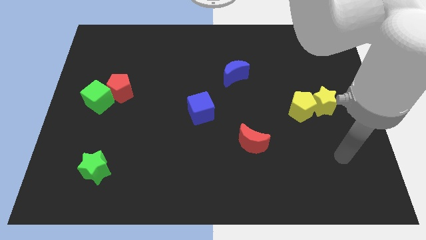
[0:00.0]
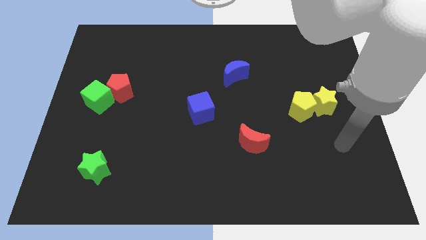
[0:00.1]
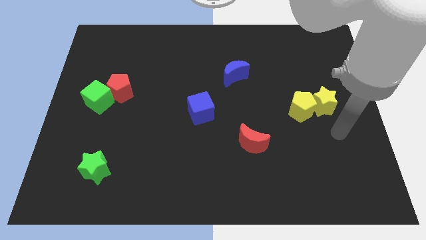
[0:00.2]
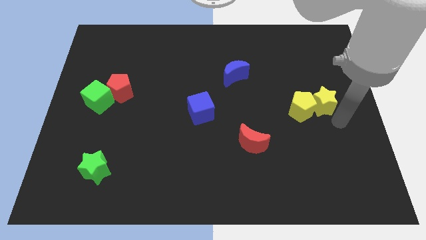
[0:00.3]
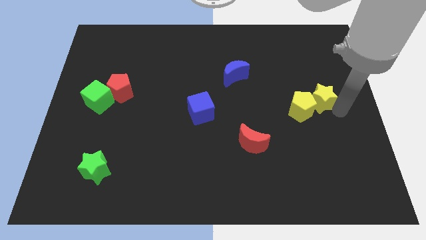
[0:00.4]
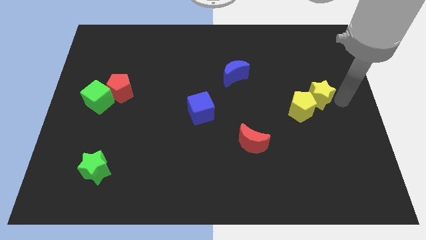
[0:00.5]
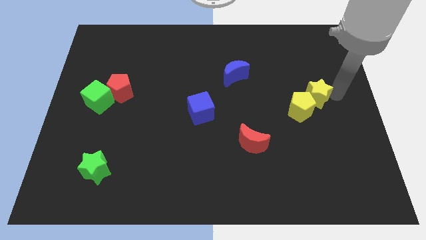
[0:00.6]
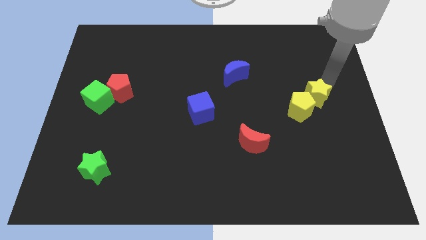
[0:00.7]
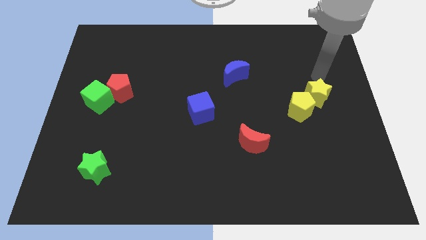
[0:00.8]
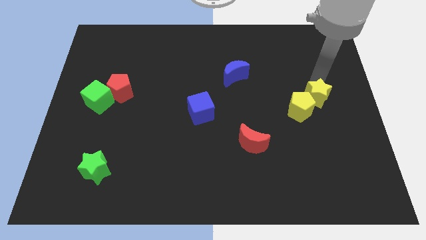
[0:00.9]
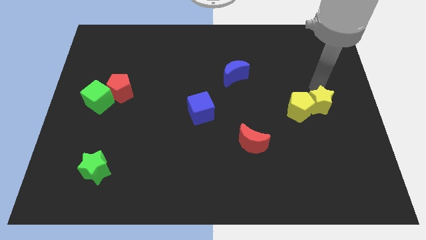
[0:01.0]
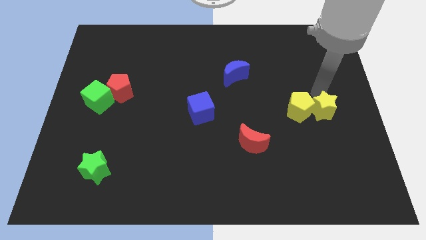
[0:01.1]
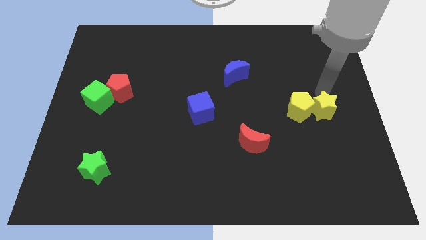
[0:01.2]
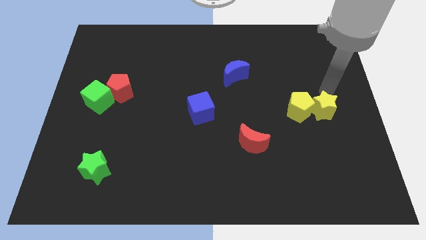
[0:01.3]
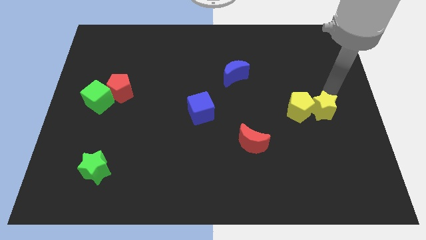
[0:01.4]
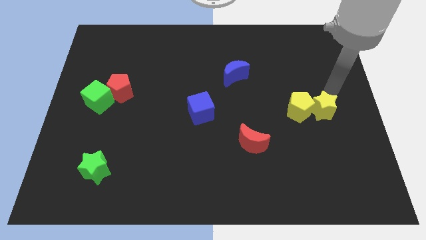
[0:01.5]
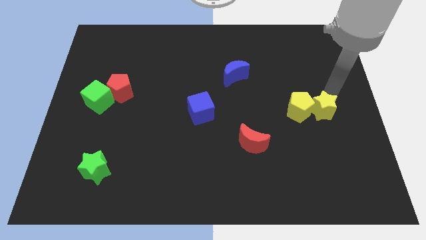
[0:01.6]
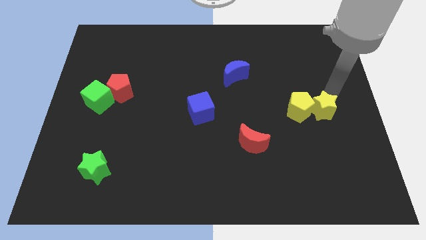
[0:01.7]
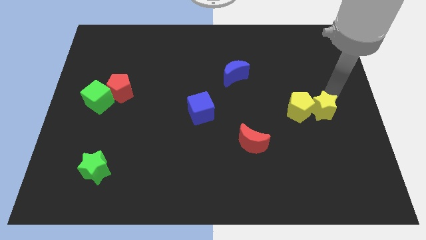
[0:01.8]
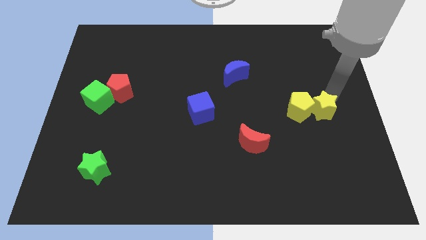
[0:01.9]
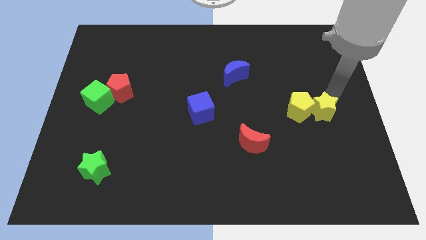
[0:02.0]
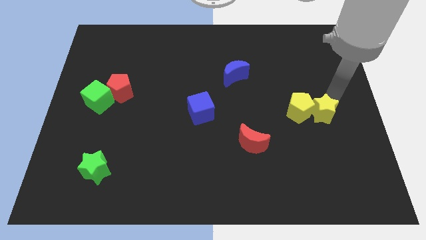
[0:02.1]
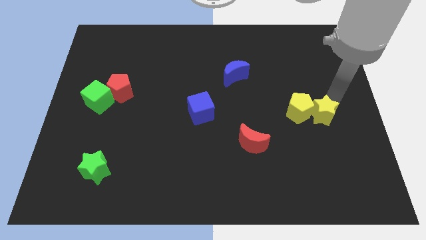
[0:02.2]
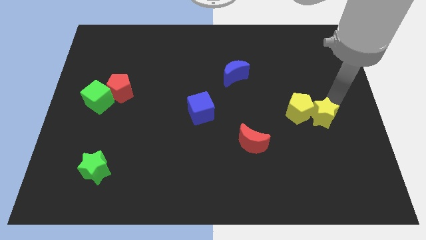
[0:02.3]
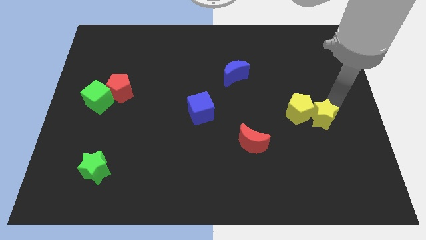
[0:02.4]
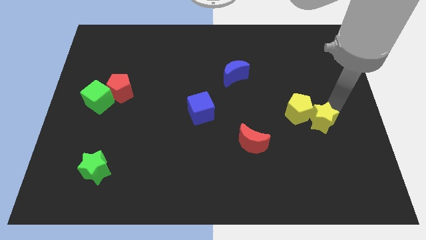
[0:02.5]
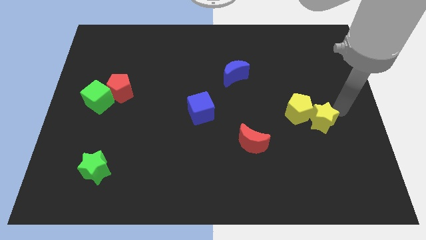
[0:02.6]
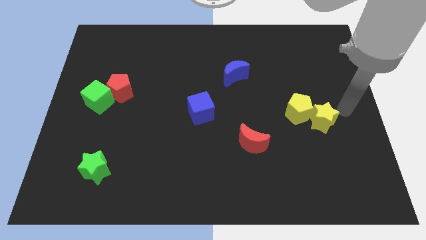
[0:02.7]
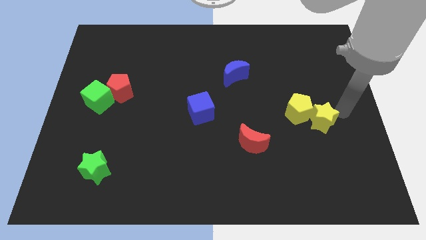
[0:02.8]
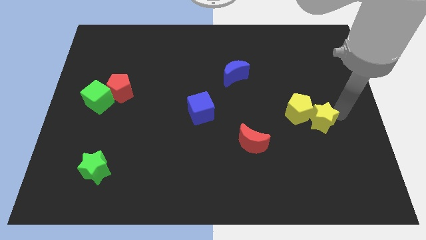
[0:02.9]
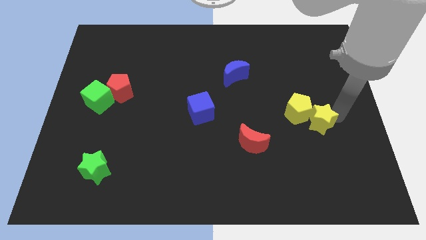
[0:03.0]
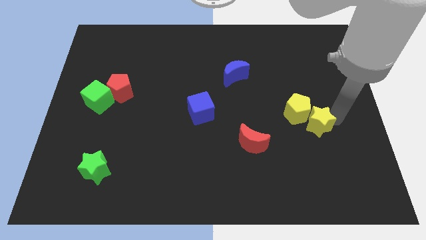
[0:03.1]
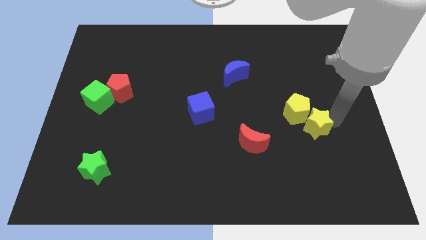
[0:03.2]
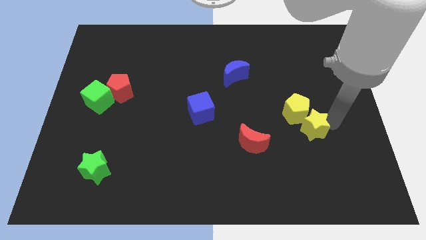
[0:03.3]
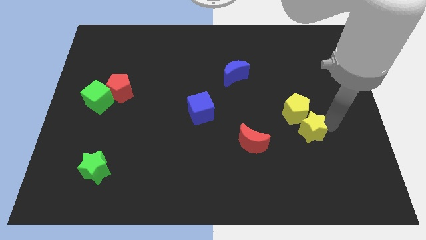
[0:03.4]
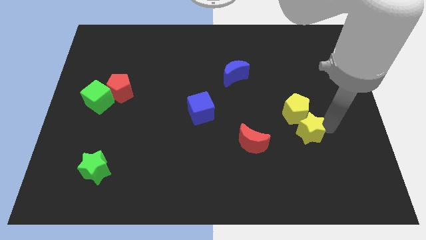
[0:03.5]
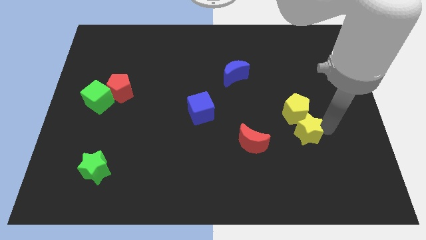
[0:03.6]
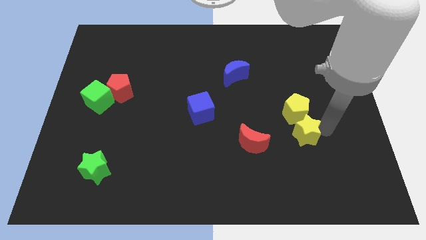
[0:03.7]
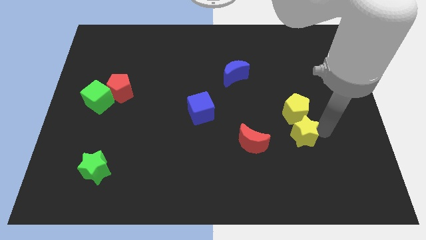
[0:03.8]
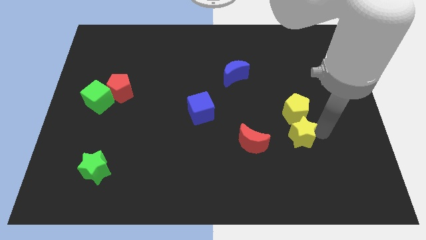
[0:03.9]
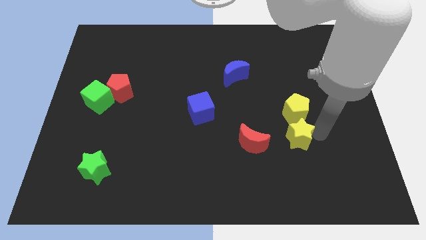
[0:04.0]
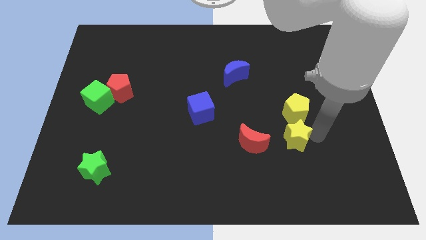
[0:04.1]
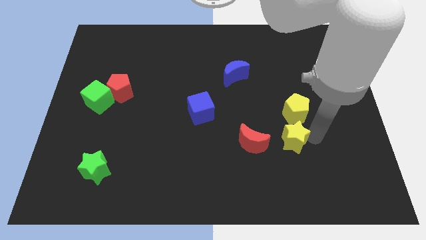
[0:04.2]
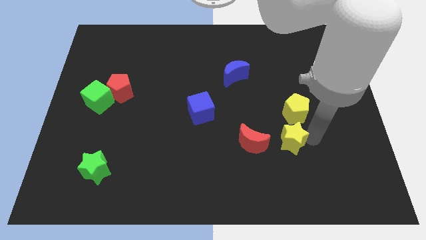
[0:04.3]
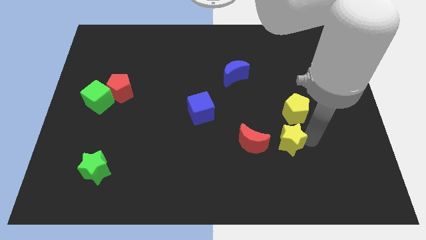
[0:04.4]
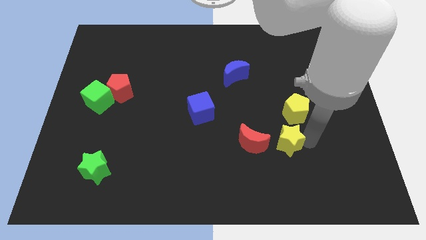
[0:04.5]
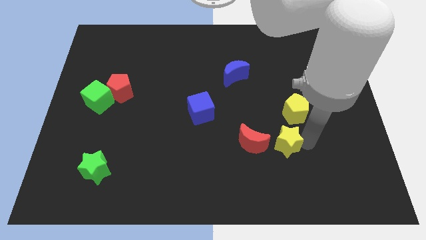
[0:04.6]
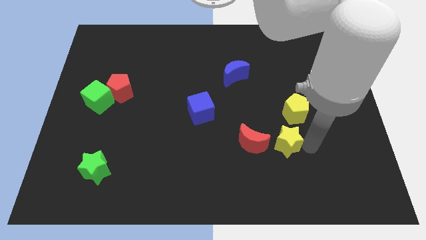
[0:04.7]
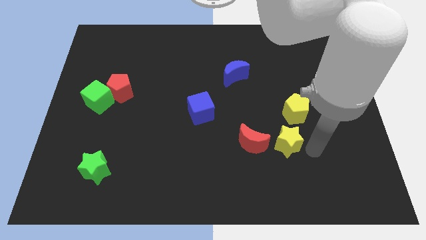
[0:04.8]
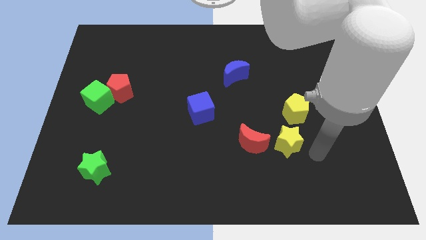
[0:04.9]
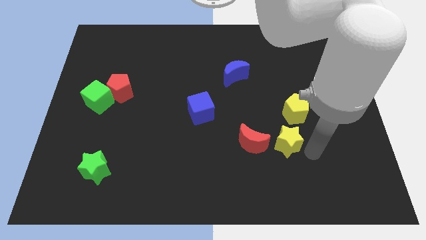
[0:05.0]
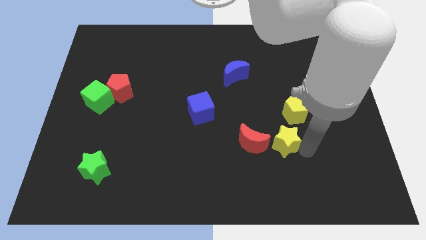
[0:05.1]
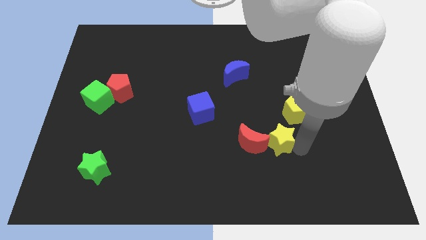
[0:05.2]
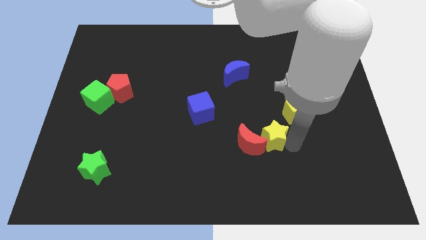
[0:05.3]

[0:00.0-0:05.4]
slide the yellow star to the red moon

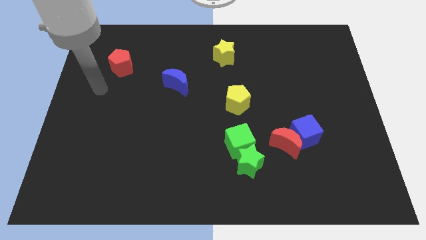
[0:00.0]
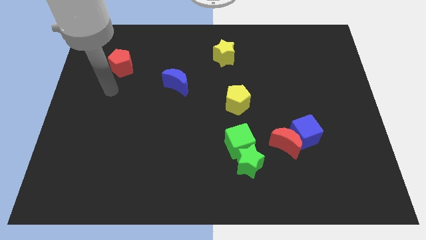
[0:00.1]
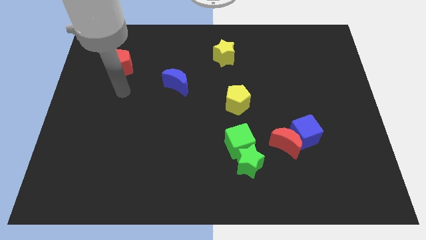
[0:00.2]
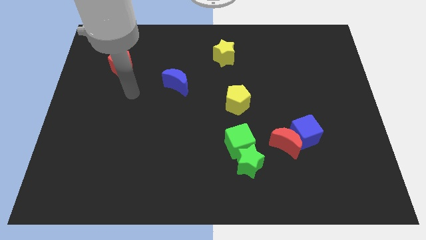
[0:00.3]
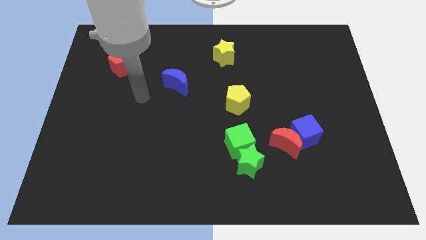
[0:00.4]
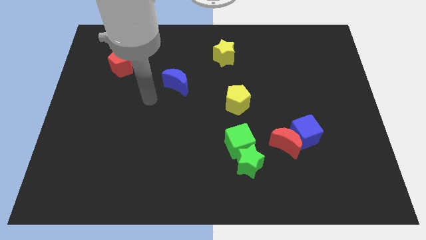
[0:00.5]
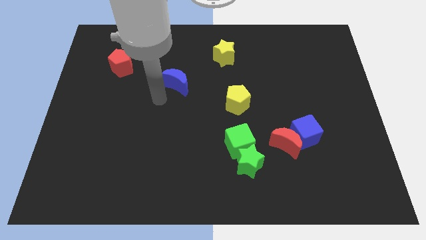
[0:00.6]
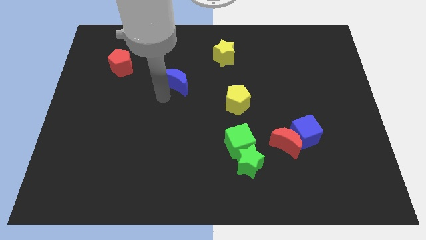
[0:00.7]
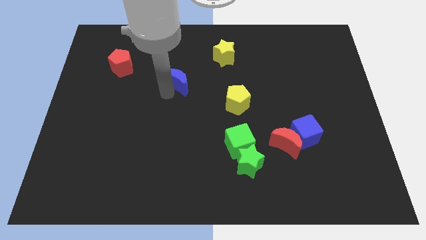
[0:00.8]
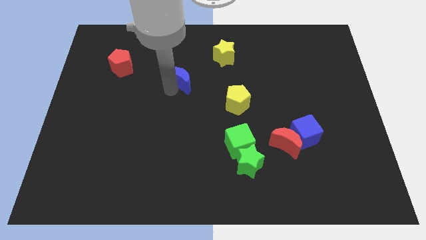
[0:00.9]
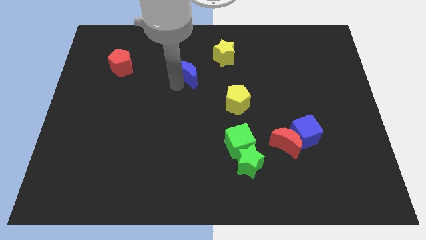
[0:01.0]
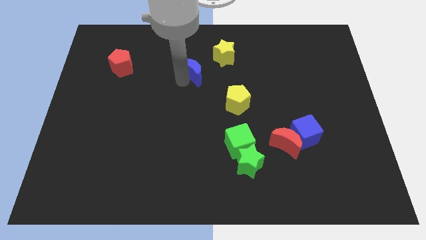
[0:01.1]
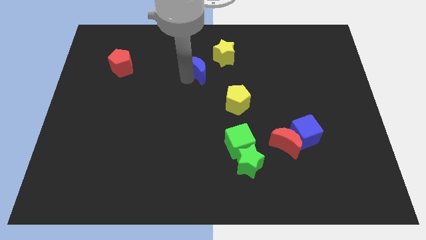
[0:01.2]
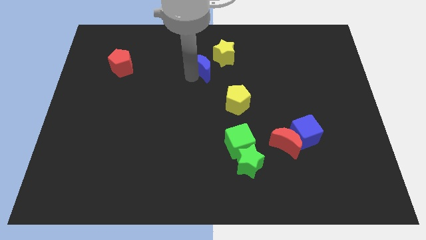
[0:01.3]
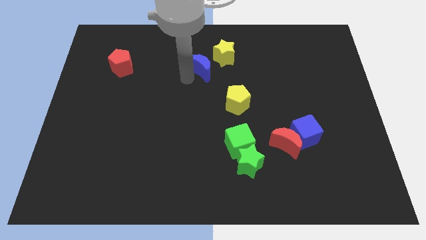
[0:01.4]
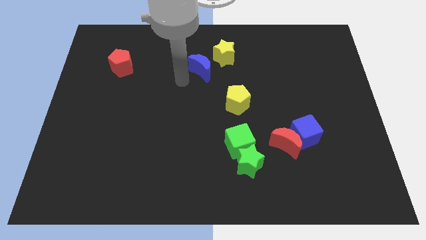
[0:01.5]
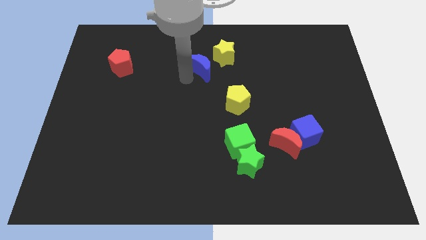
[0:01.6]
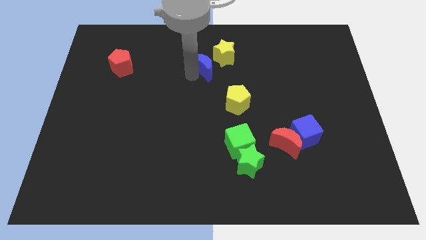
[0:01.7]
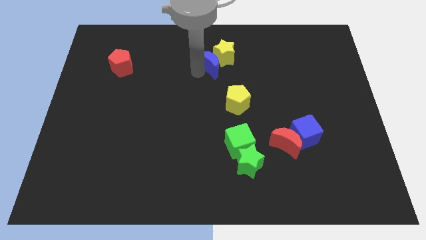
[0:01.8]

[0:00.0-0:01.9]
slide the blue moon next to the yellow star
